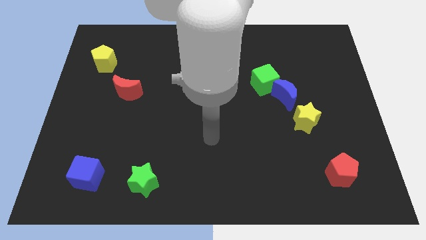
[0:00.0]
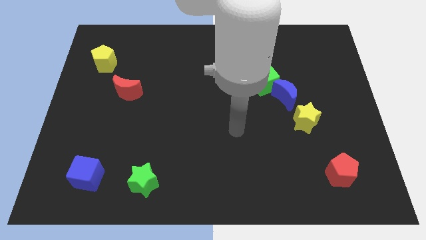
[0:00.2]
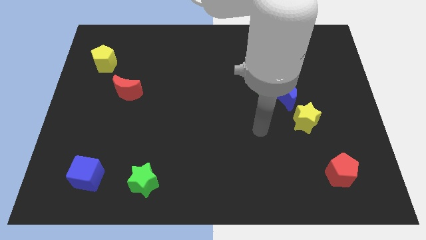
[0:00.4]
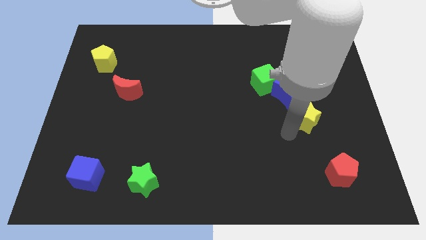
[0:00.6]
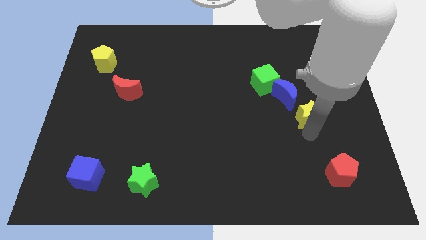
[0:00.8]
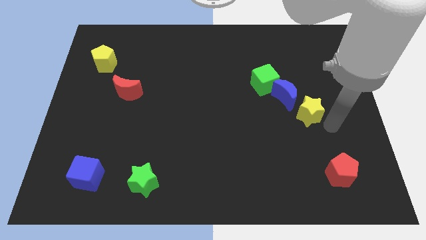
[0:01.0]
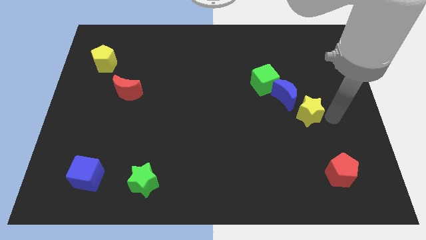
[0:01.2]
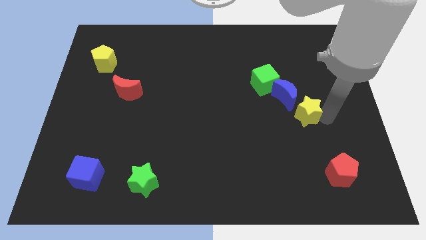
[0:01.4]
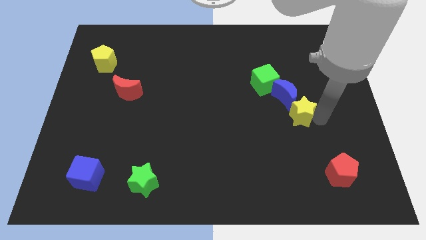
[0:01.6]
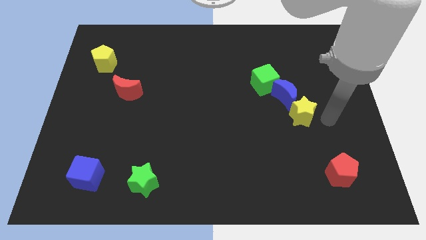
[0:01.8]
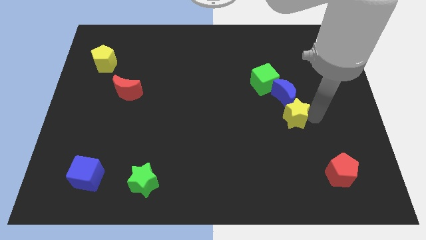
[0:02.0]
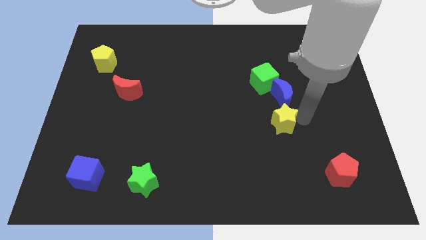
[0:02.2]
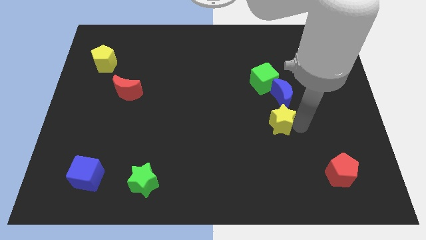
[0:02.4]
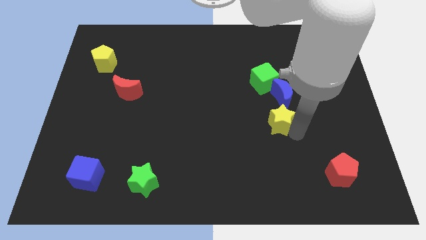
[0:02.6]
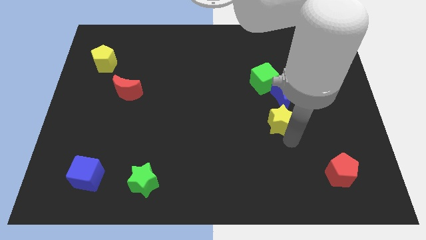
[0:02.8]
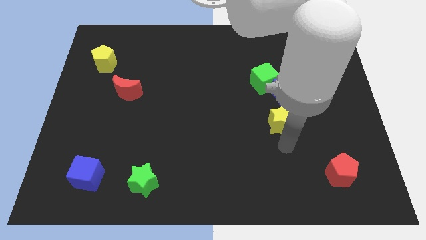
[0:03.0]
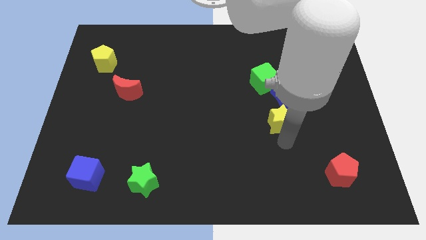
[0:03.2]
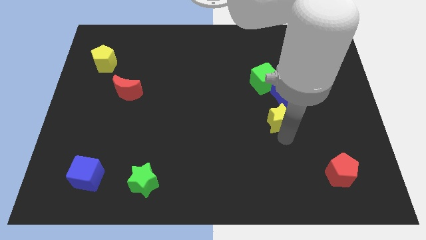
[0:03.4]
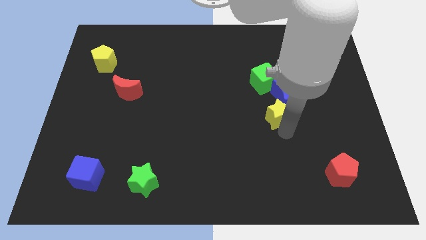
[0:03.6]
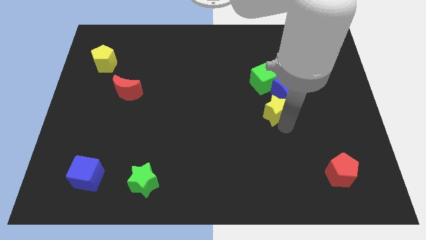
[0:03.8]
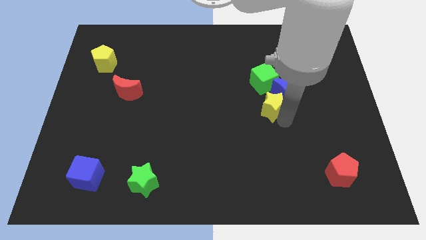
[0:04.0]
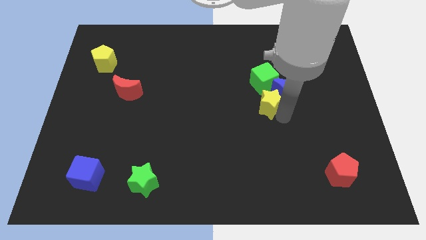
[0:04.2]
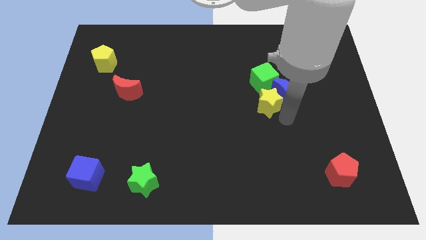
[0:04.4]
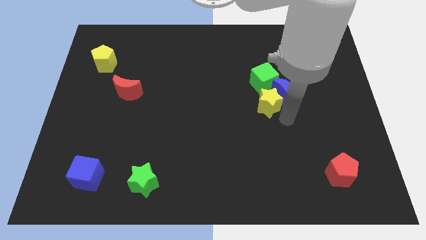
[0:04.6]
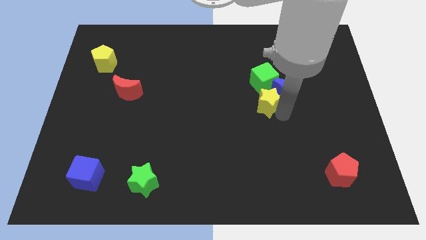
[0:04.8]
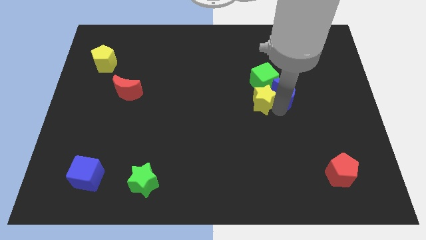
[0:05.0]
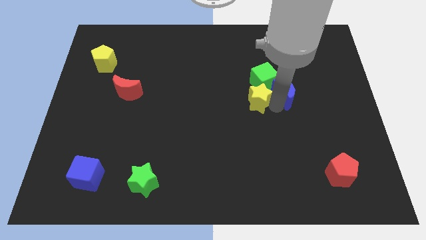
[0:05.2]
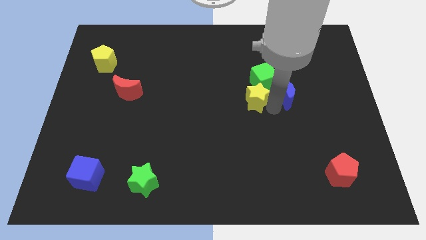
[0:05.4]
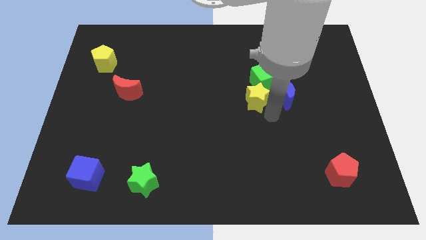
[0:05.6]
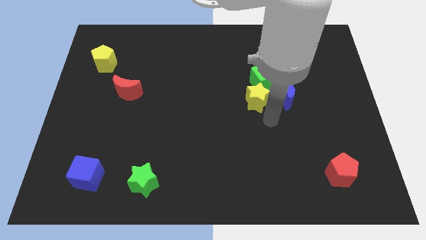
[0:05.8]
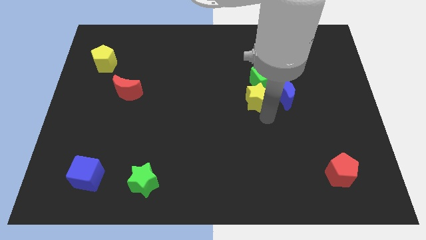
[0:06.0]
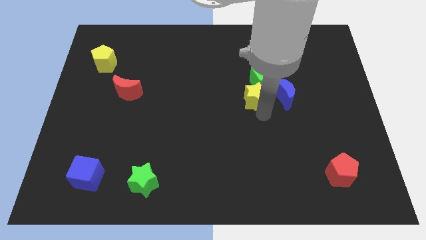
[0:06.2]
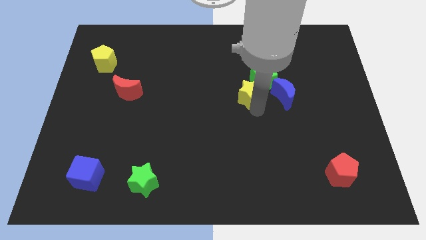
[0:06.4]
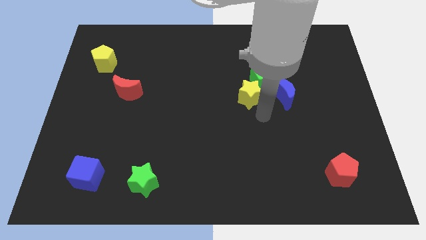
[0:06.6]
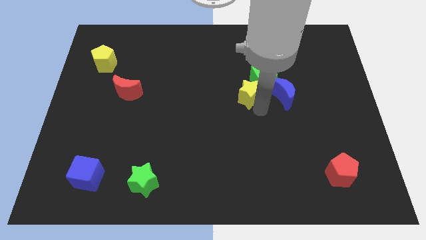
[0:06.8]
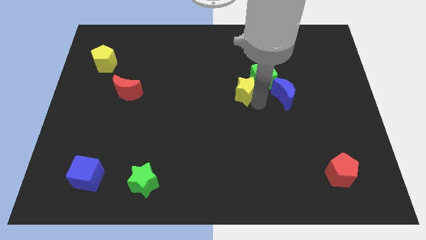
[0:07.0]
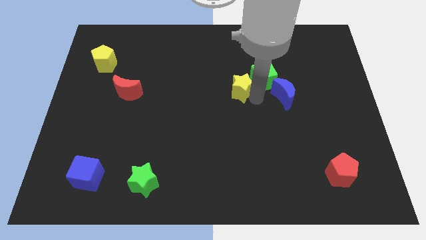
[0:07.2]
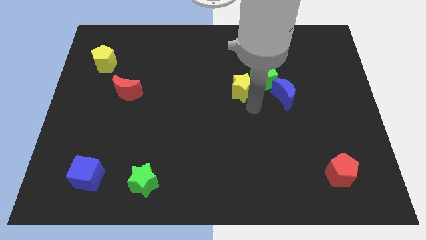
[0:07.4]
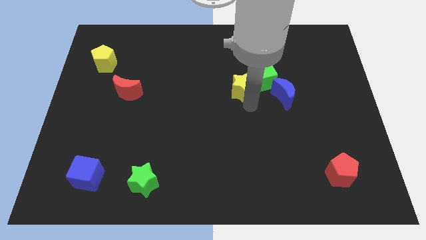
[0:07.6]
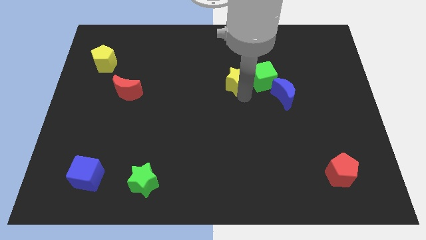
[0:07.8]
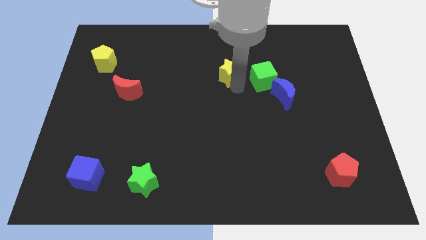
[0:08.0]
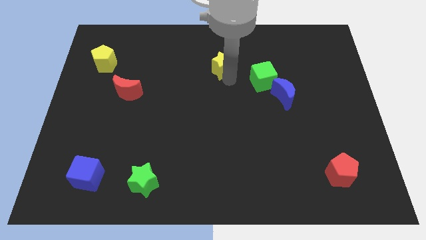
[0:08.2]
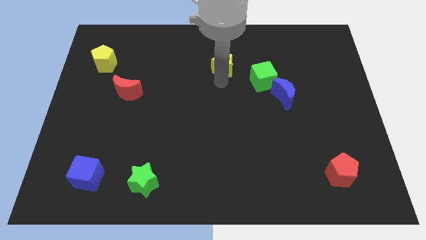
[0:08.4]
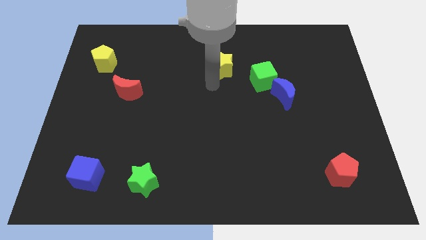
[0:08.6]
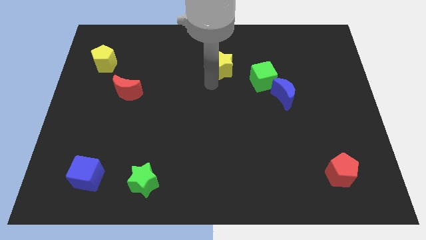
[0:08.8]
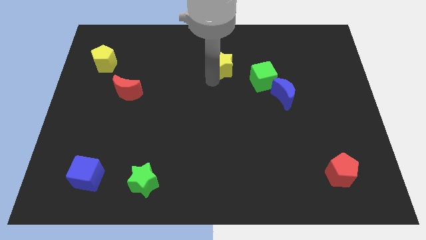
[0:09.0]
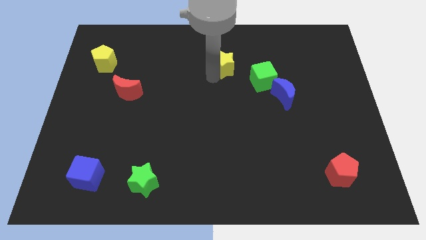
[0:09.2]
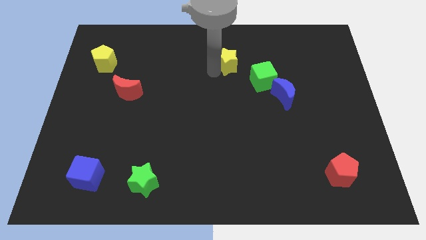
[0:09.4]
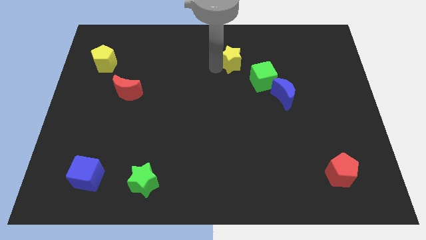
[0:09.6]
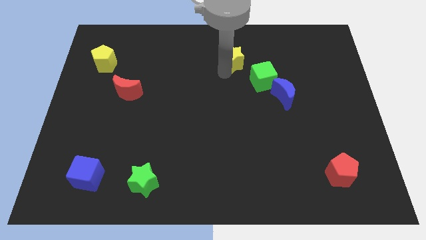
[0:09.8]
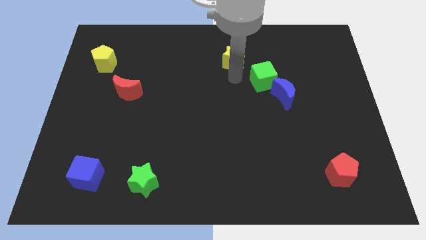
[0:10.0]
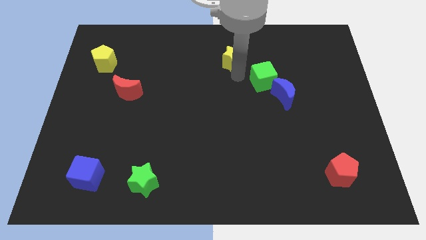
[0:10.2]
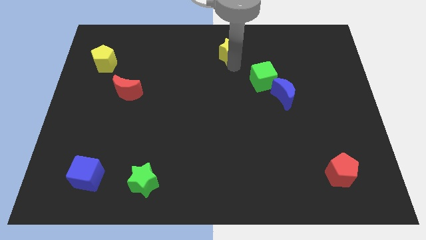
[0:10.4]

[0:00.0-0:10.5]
put the yellow star to the towards your base

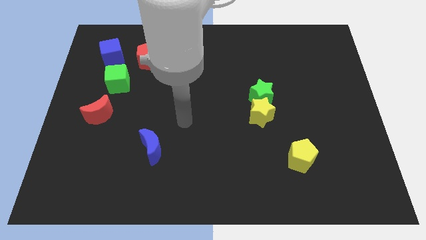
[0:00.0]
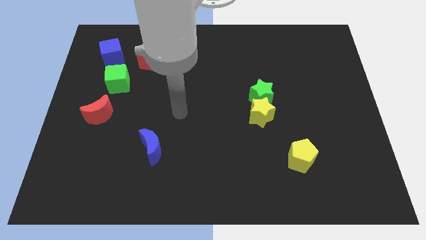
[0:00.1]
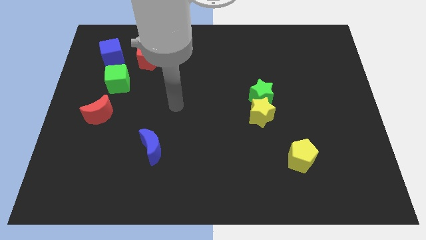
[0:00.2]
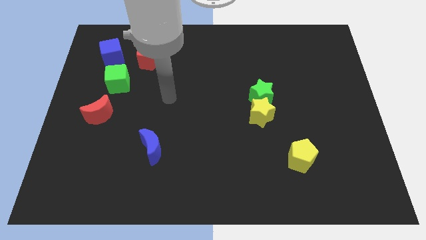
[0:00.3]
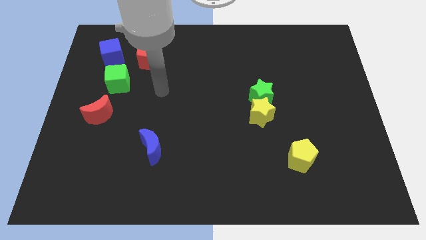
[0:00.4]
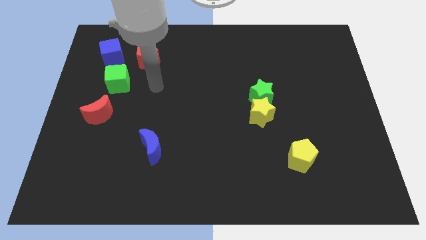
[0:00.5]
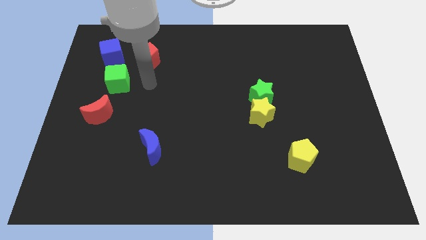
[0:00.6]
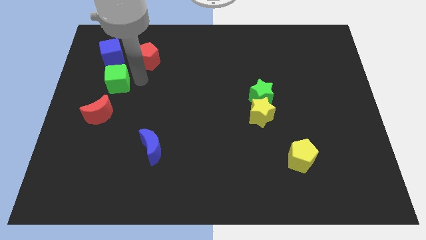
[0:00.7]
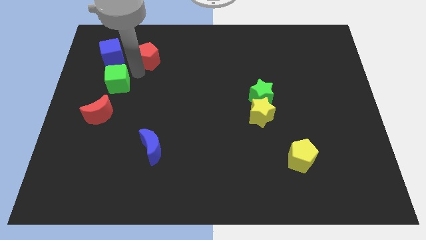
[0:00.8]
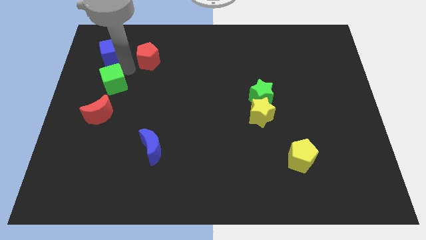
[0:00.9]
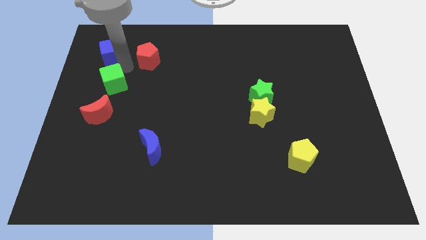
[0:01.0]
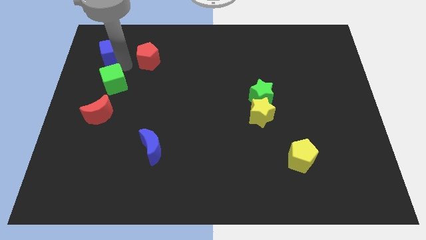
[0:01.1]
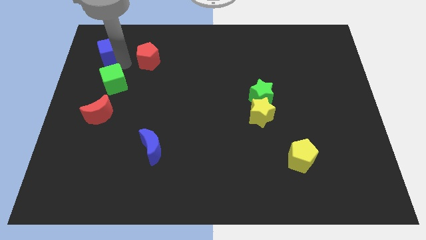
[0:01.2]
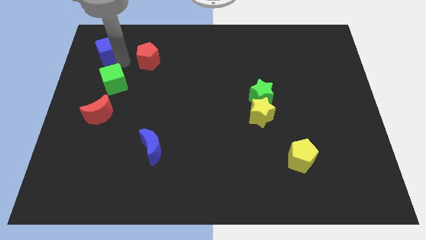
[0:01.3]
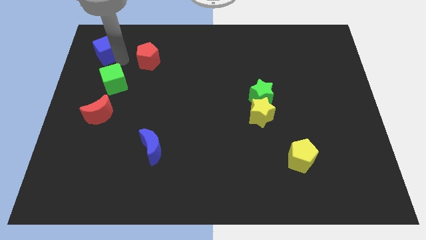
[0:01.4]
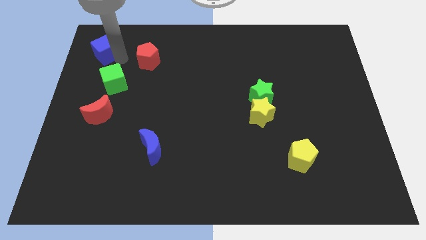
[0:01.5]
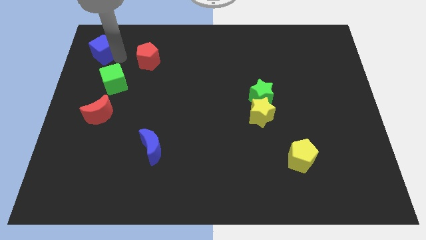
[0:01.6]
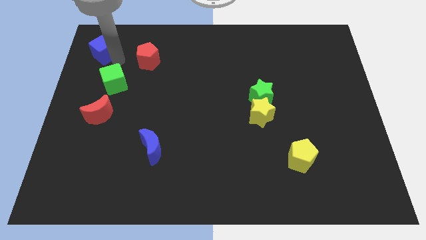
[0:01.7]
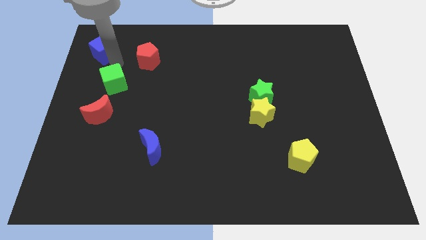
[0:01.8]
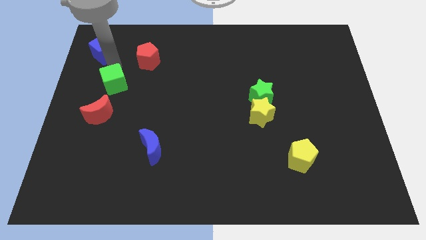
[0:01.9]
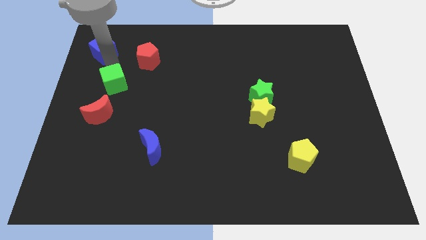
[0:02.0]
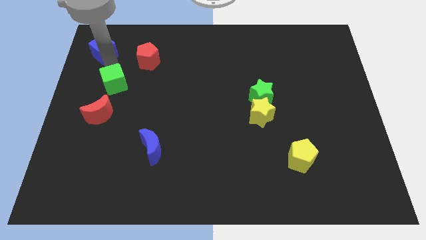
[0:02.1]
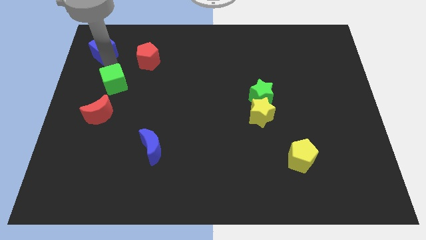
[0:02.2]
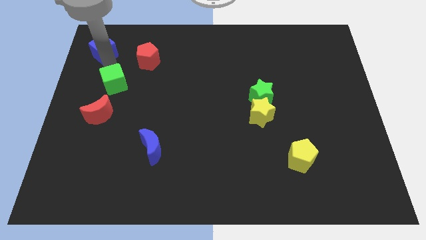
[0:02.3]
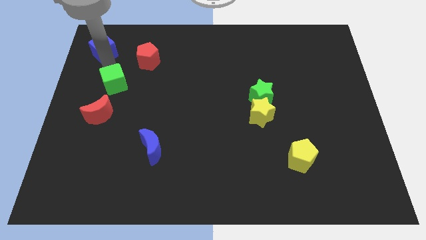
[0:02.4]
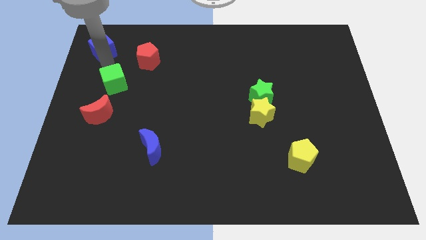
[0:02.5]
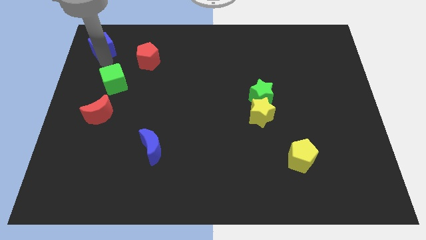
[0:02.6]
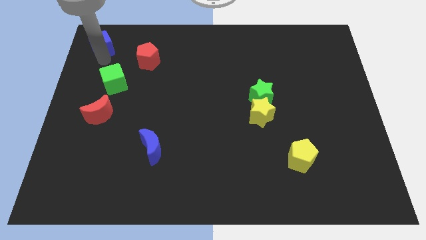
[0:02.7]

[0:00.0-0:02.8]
slide the blue cube to the upper left corner
